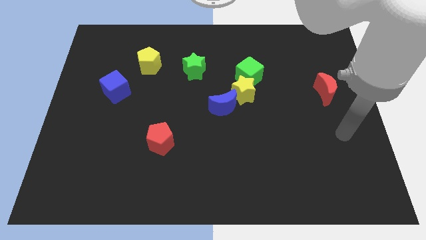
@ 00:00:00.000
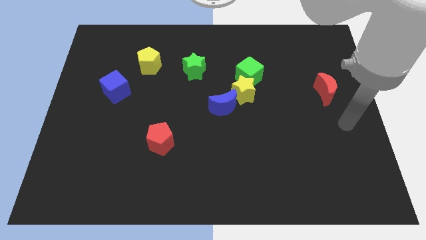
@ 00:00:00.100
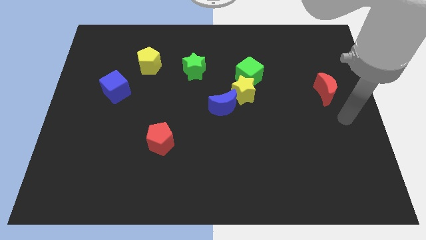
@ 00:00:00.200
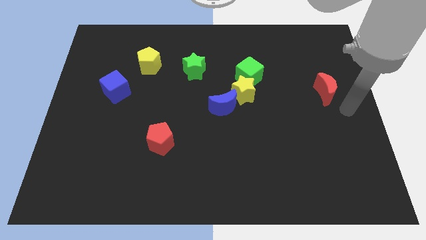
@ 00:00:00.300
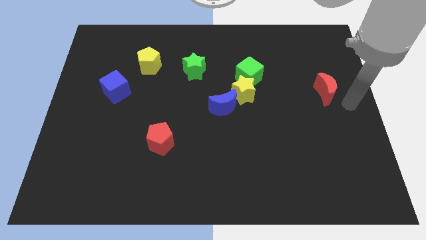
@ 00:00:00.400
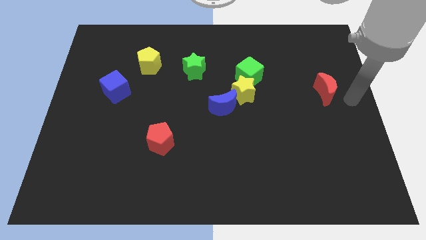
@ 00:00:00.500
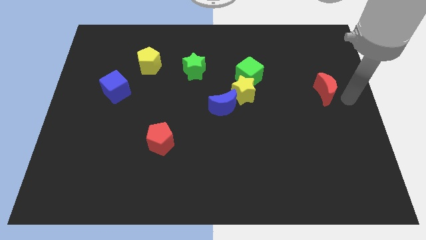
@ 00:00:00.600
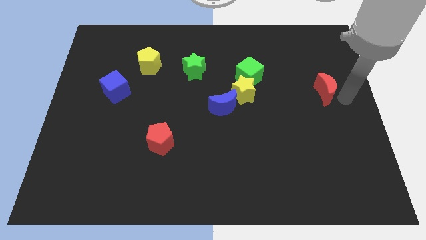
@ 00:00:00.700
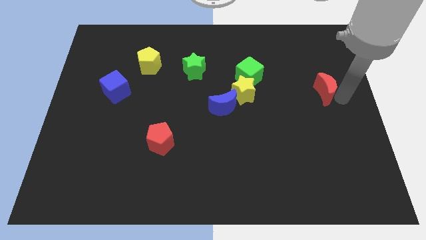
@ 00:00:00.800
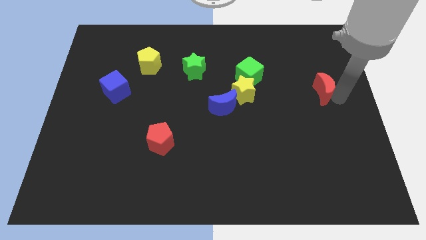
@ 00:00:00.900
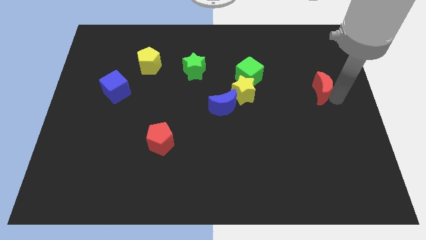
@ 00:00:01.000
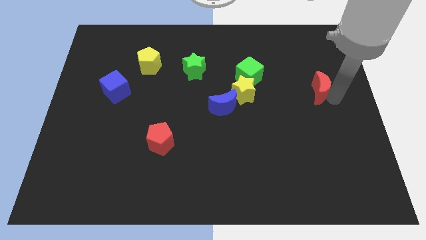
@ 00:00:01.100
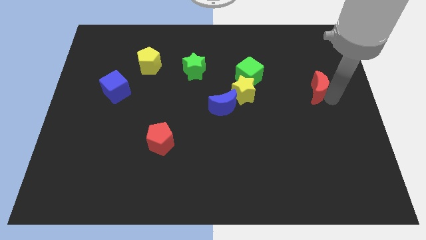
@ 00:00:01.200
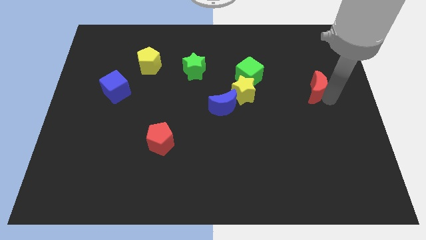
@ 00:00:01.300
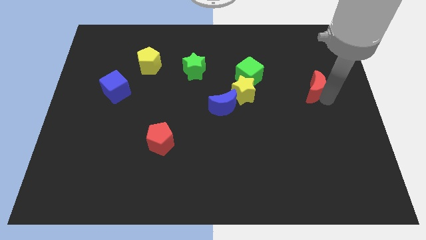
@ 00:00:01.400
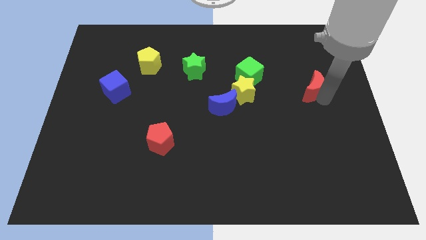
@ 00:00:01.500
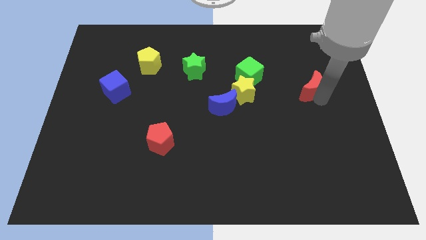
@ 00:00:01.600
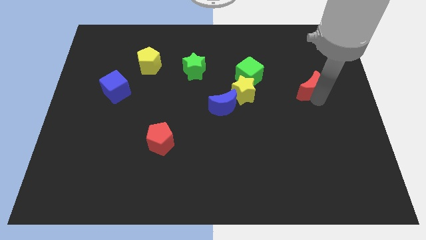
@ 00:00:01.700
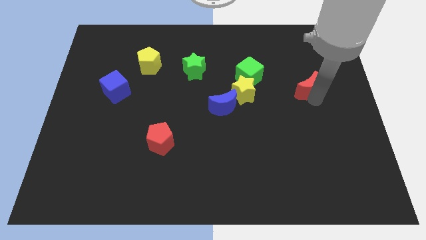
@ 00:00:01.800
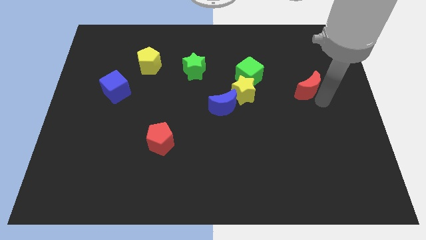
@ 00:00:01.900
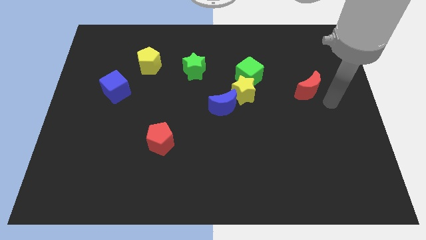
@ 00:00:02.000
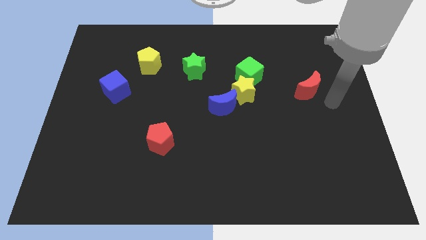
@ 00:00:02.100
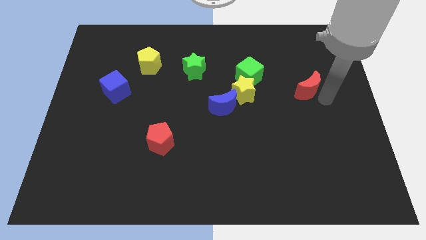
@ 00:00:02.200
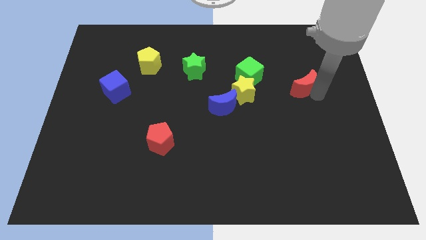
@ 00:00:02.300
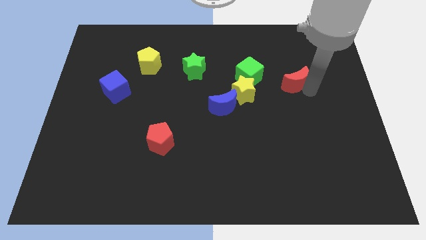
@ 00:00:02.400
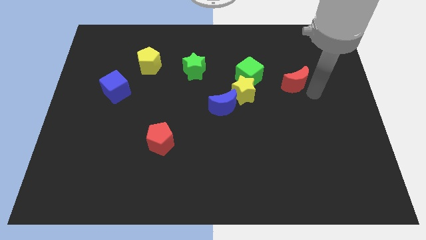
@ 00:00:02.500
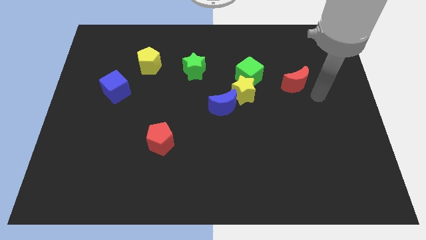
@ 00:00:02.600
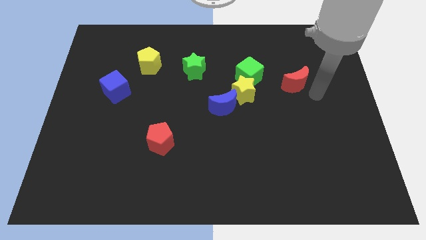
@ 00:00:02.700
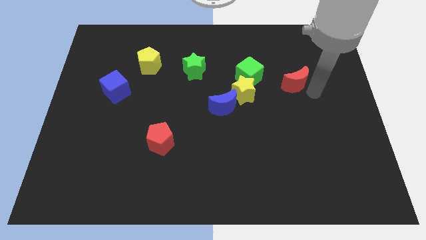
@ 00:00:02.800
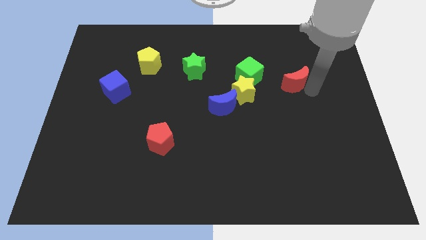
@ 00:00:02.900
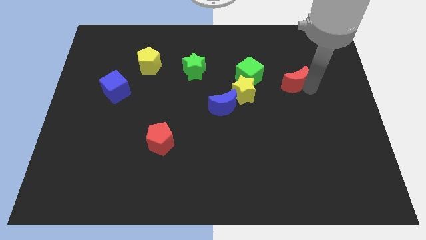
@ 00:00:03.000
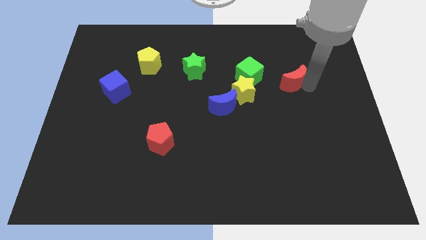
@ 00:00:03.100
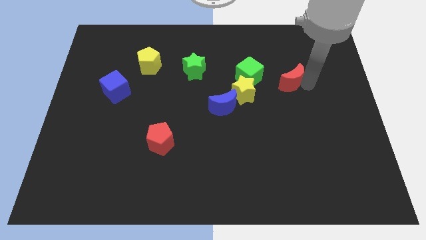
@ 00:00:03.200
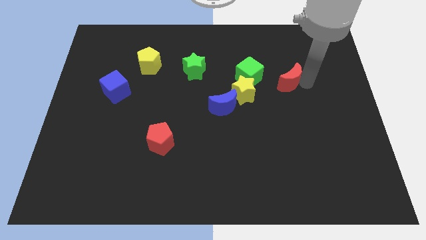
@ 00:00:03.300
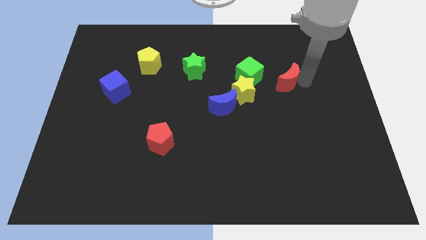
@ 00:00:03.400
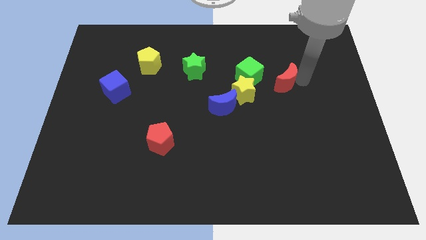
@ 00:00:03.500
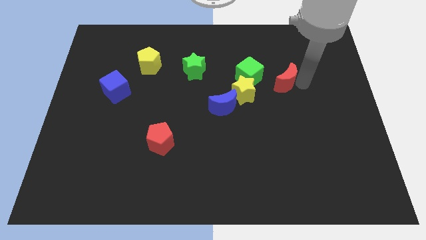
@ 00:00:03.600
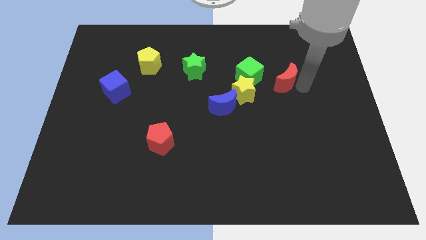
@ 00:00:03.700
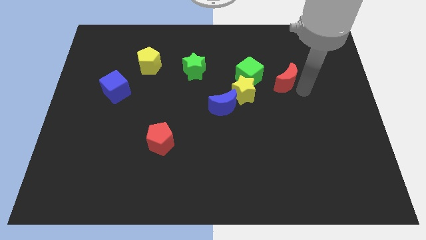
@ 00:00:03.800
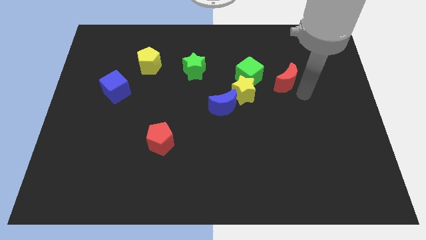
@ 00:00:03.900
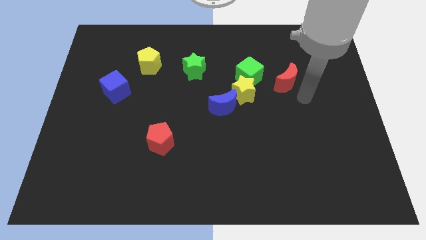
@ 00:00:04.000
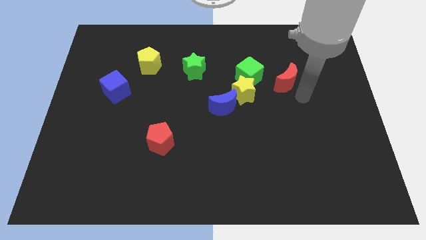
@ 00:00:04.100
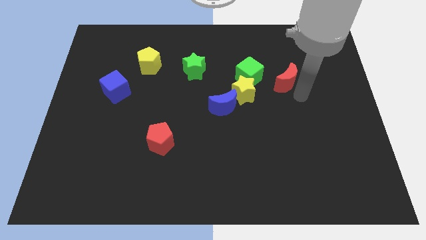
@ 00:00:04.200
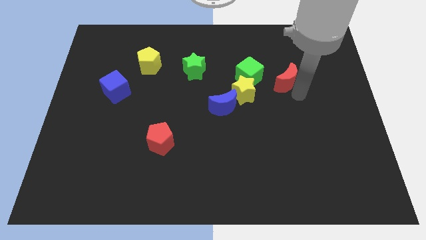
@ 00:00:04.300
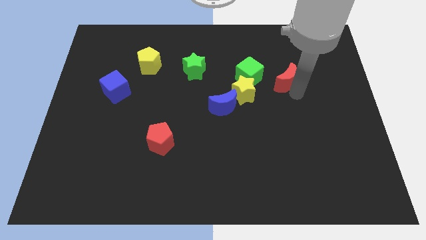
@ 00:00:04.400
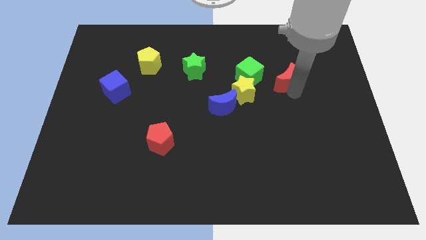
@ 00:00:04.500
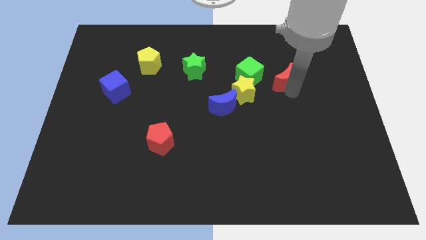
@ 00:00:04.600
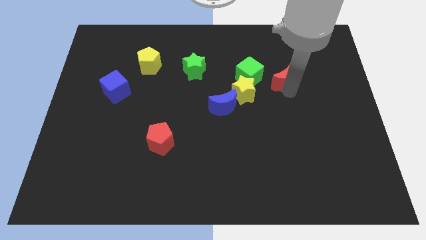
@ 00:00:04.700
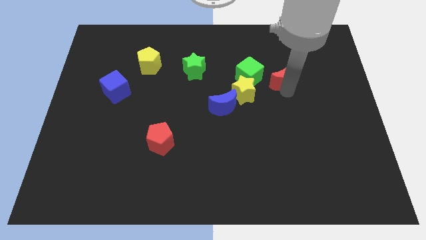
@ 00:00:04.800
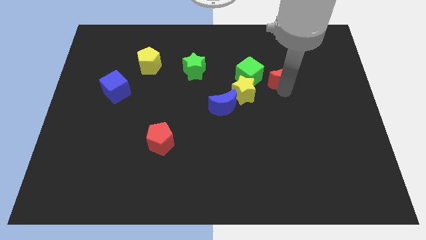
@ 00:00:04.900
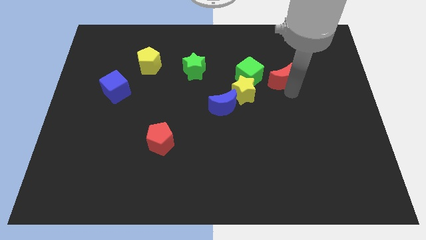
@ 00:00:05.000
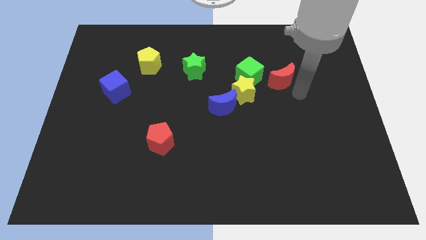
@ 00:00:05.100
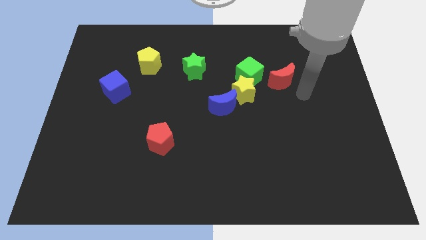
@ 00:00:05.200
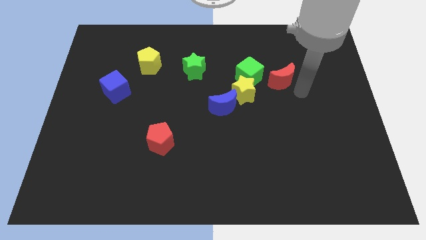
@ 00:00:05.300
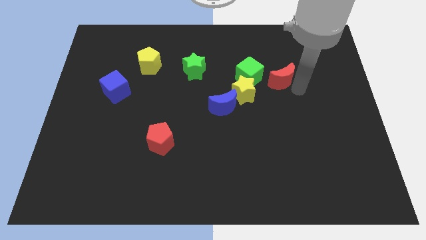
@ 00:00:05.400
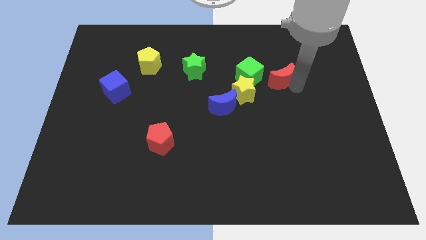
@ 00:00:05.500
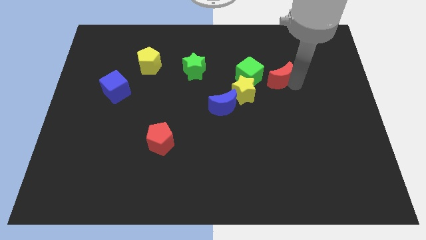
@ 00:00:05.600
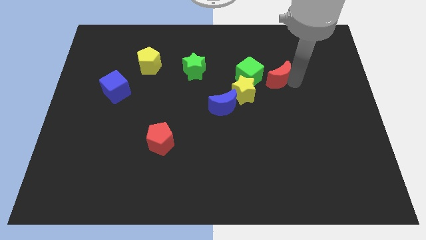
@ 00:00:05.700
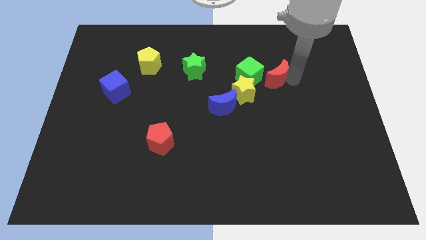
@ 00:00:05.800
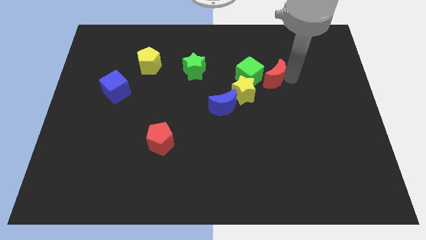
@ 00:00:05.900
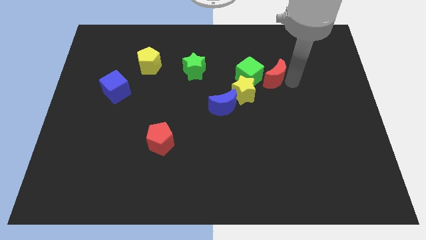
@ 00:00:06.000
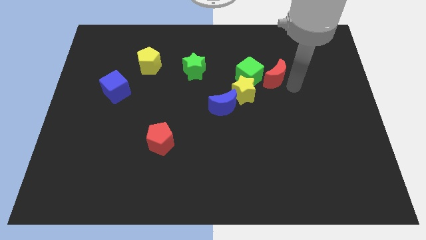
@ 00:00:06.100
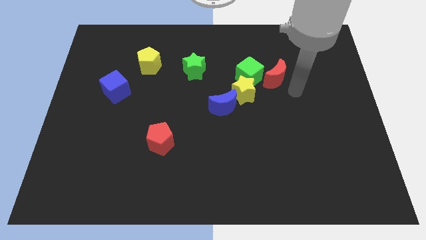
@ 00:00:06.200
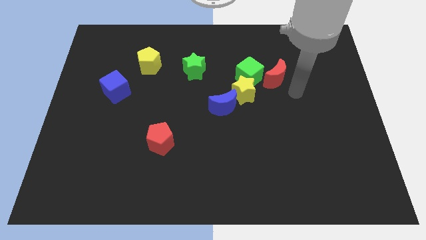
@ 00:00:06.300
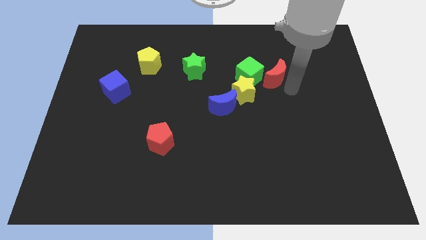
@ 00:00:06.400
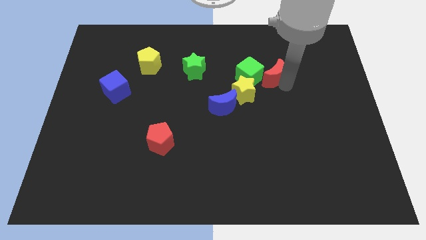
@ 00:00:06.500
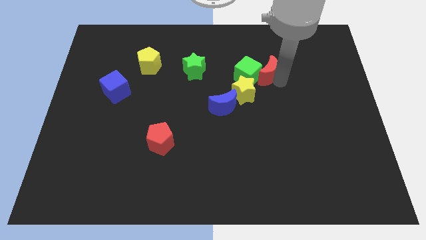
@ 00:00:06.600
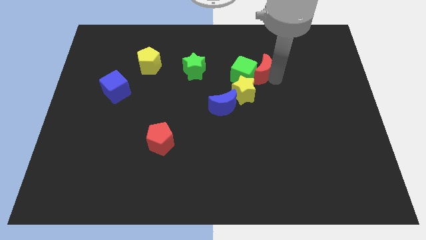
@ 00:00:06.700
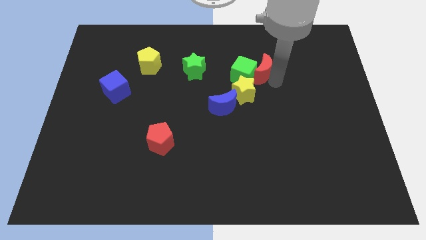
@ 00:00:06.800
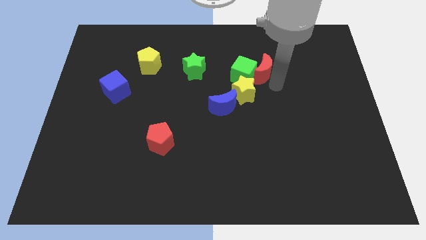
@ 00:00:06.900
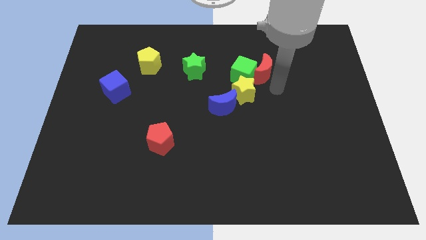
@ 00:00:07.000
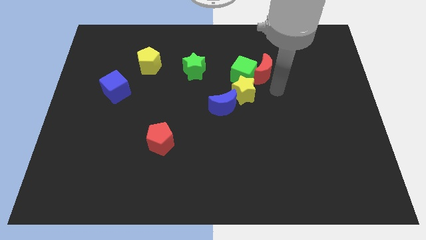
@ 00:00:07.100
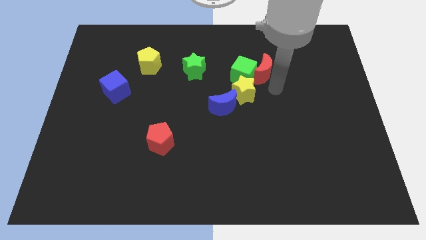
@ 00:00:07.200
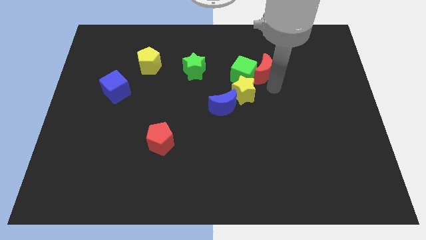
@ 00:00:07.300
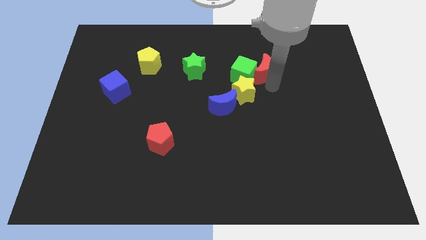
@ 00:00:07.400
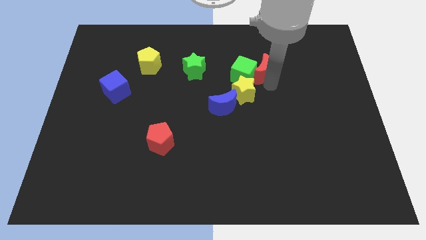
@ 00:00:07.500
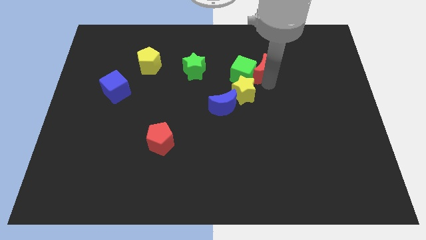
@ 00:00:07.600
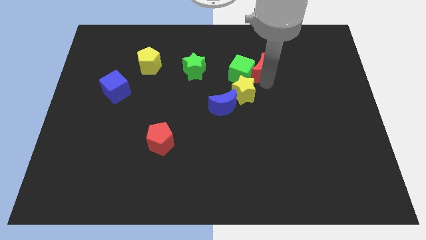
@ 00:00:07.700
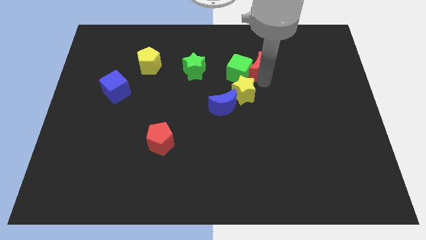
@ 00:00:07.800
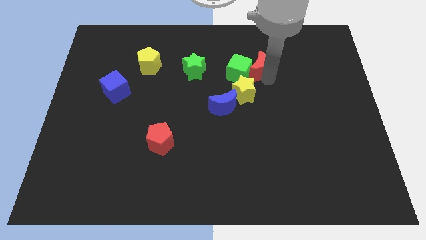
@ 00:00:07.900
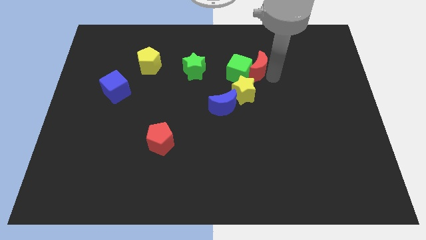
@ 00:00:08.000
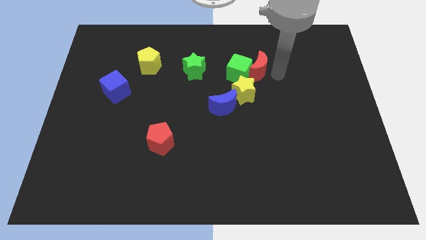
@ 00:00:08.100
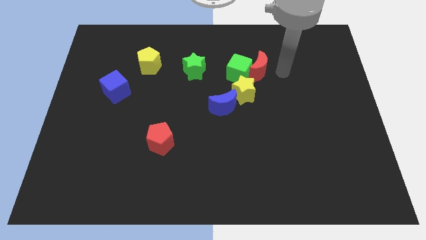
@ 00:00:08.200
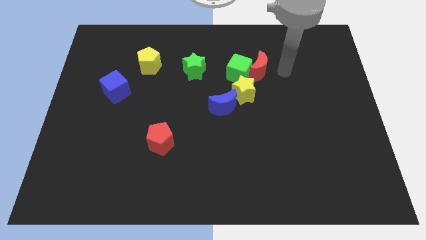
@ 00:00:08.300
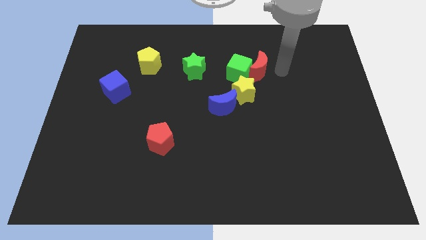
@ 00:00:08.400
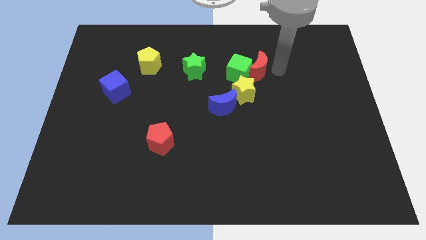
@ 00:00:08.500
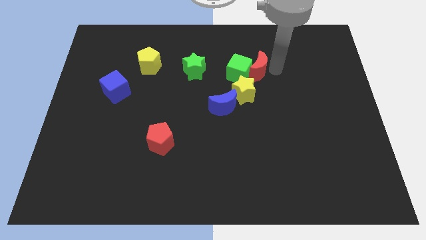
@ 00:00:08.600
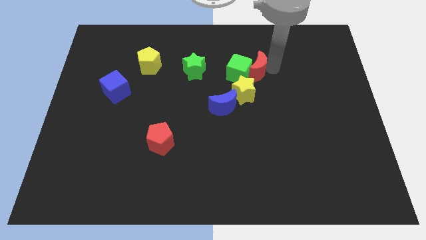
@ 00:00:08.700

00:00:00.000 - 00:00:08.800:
put the red moon to the right side of the green star
